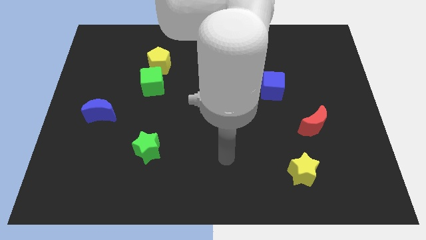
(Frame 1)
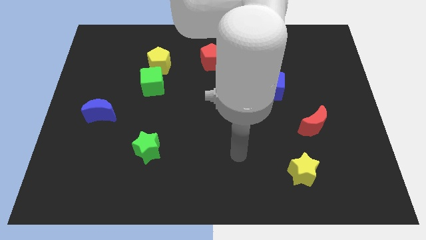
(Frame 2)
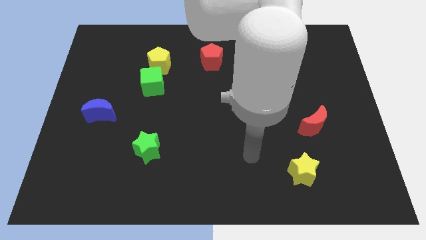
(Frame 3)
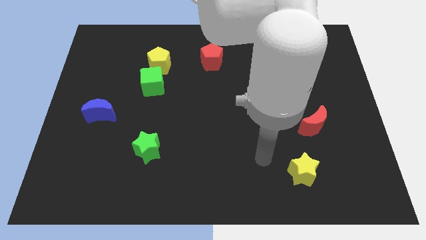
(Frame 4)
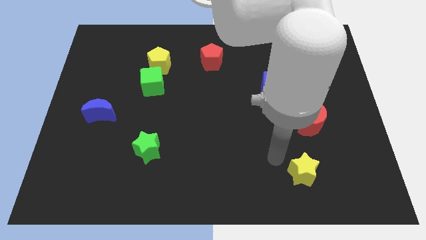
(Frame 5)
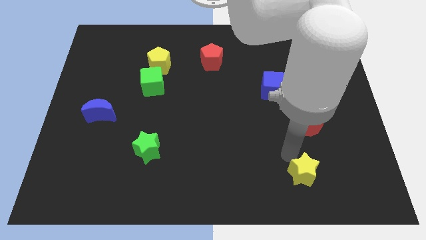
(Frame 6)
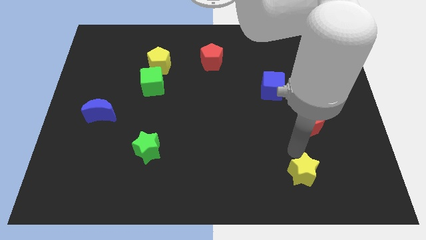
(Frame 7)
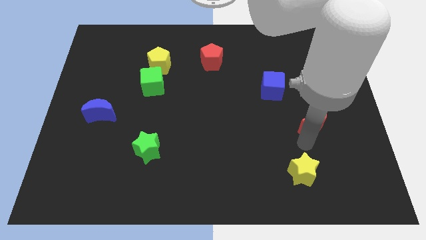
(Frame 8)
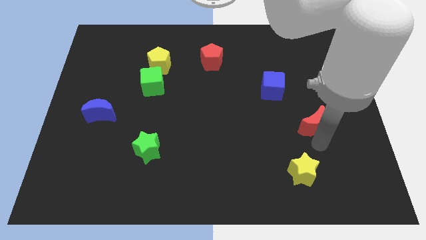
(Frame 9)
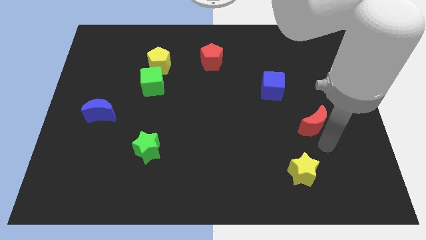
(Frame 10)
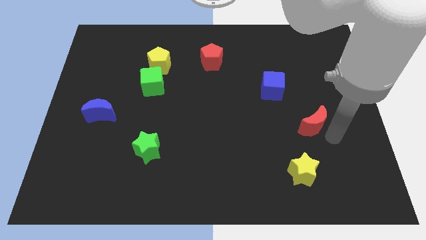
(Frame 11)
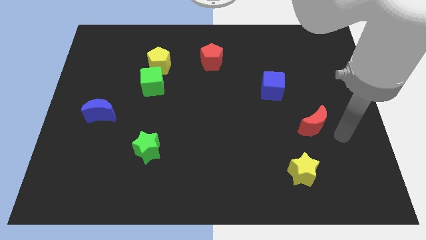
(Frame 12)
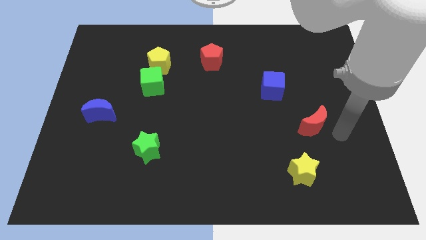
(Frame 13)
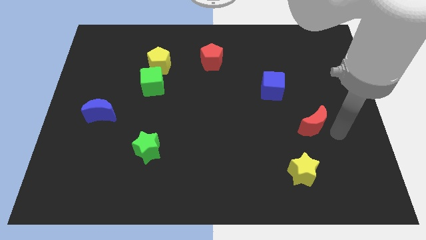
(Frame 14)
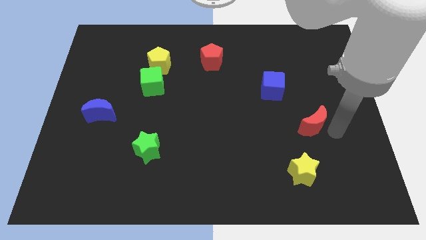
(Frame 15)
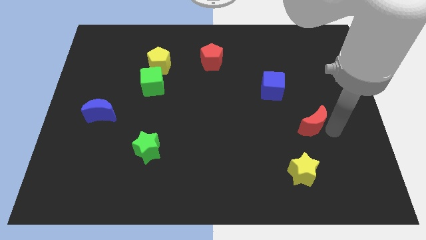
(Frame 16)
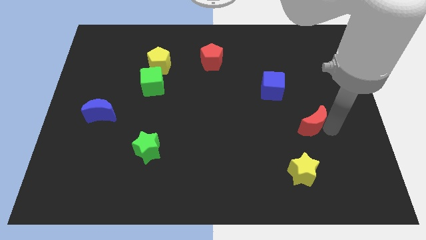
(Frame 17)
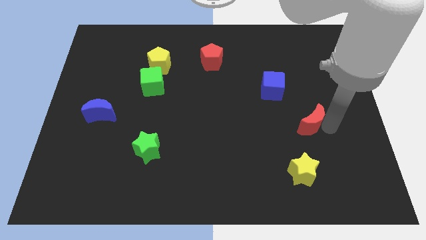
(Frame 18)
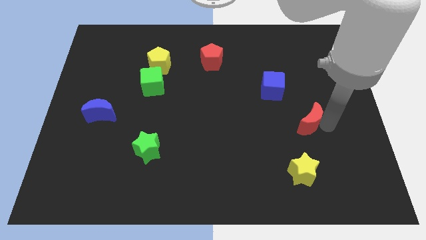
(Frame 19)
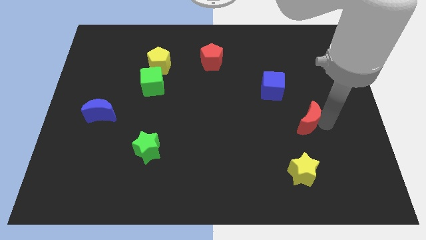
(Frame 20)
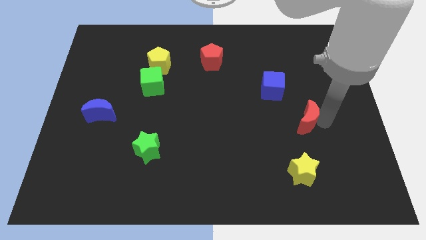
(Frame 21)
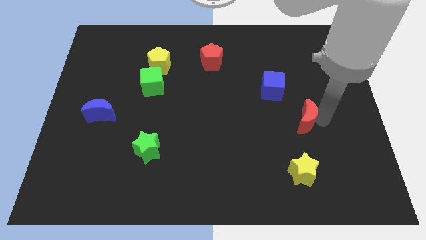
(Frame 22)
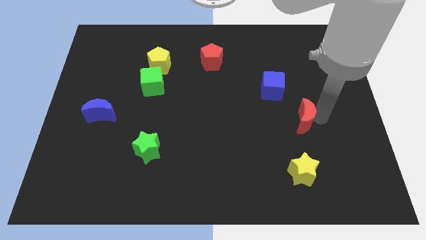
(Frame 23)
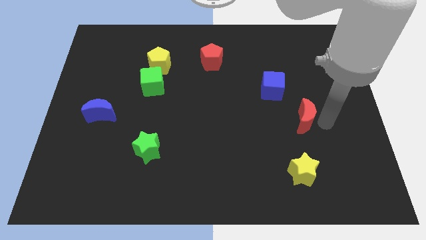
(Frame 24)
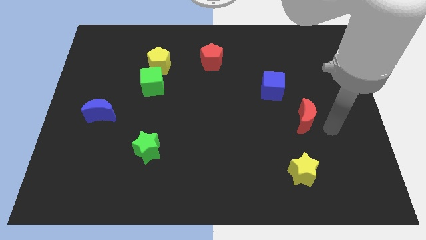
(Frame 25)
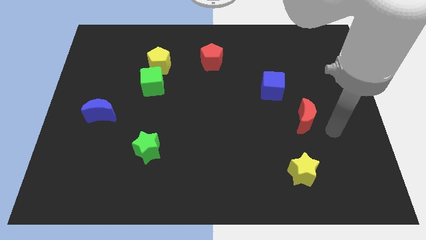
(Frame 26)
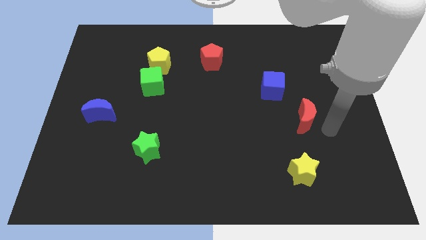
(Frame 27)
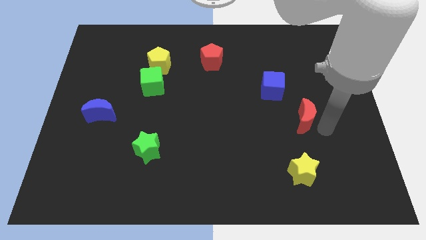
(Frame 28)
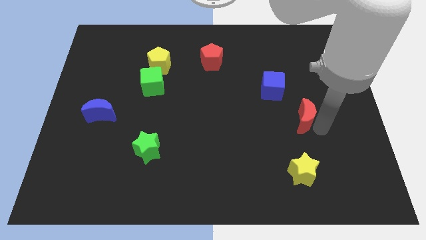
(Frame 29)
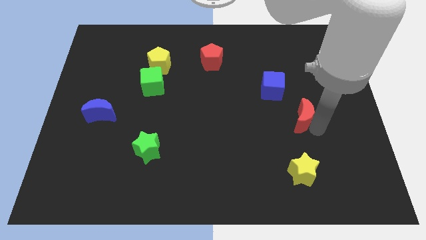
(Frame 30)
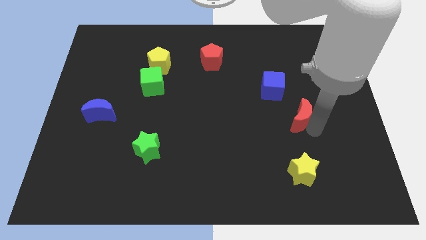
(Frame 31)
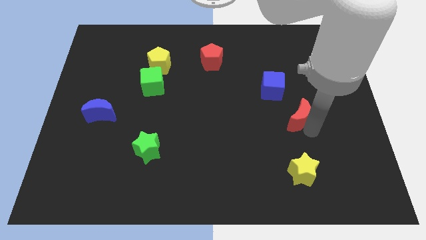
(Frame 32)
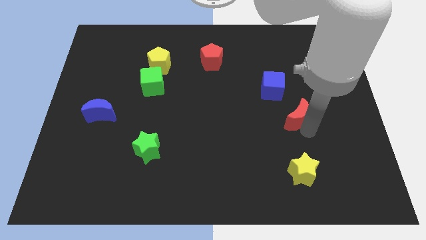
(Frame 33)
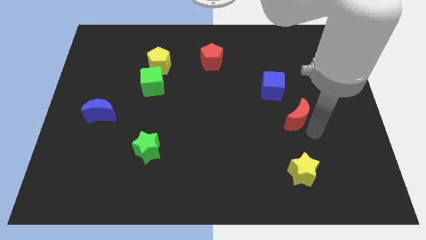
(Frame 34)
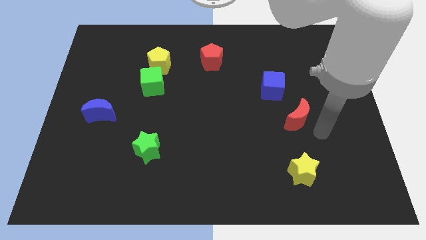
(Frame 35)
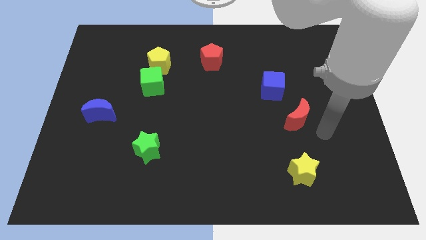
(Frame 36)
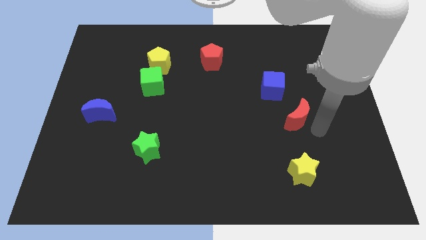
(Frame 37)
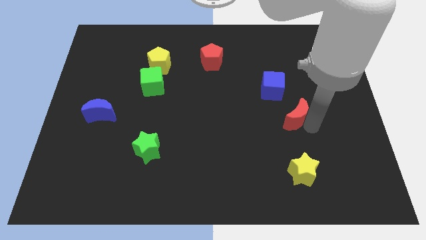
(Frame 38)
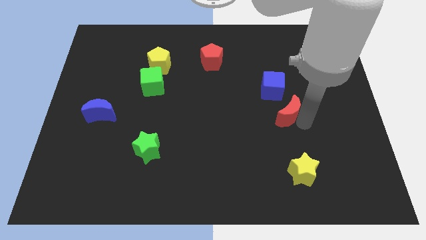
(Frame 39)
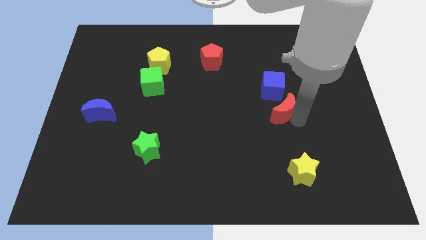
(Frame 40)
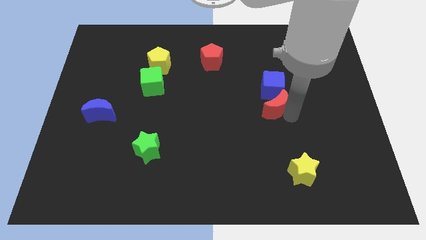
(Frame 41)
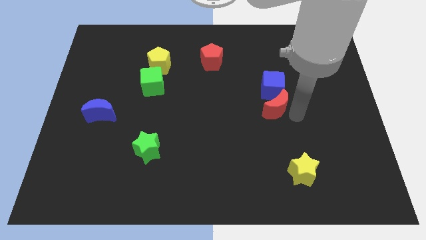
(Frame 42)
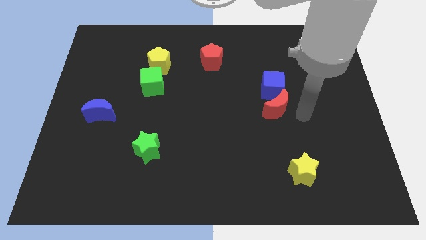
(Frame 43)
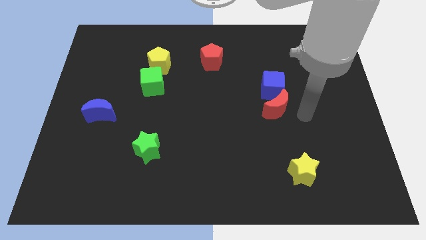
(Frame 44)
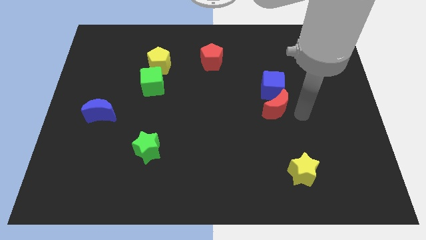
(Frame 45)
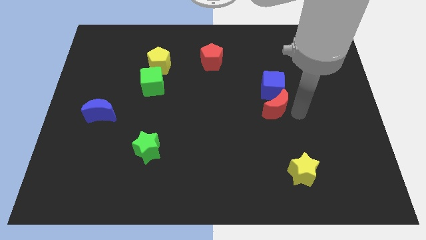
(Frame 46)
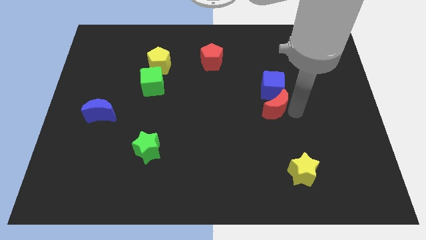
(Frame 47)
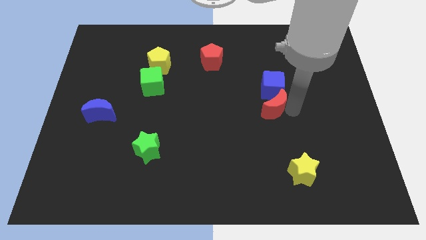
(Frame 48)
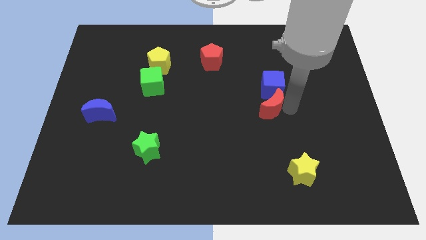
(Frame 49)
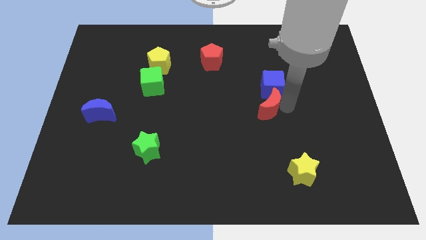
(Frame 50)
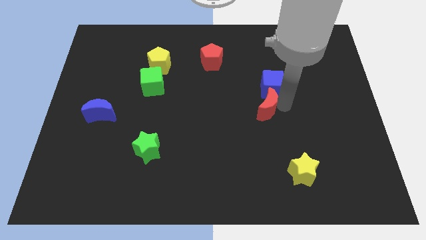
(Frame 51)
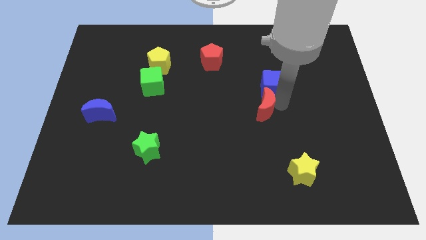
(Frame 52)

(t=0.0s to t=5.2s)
move the red moon to the center

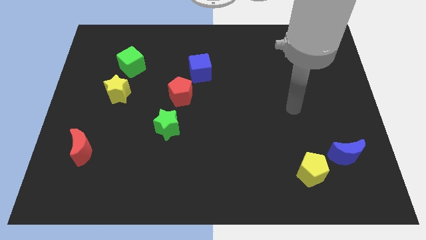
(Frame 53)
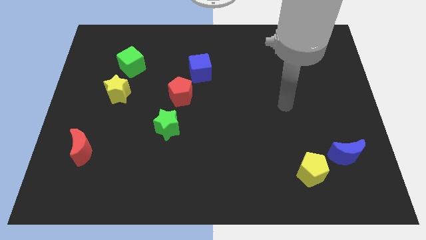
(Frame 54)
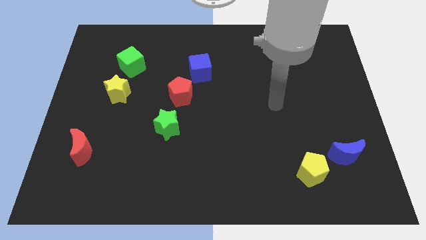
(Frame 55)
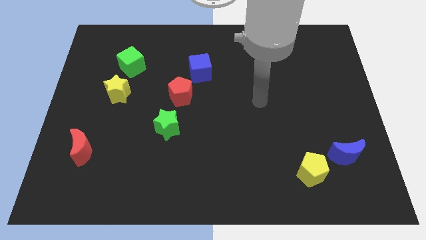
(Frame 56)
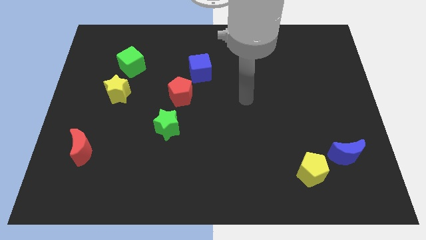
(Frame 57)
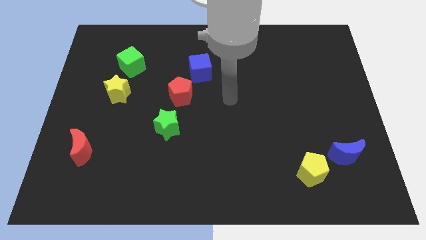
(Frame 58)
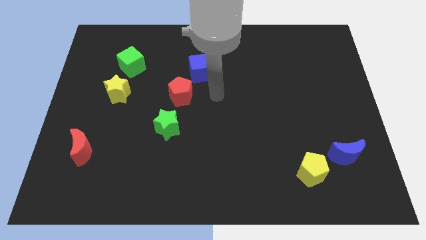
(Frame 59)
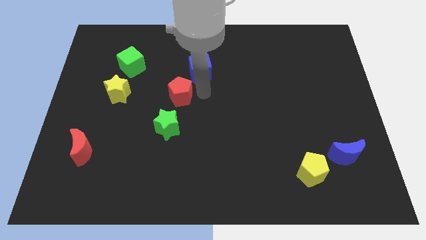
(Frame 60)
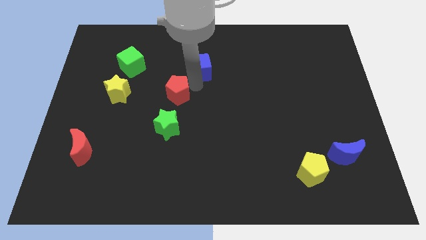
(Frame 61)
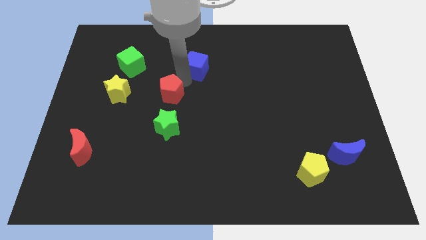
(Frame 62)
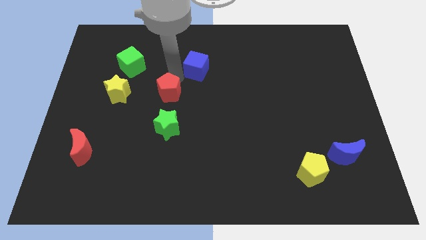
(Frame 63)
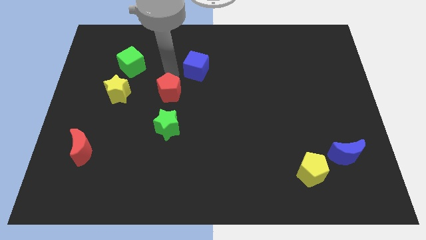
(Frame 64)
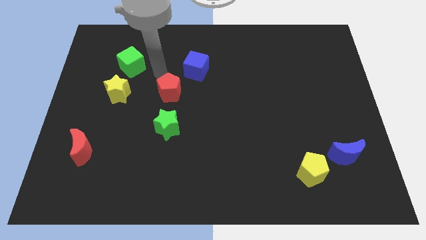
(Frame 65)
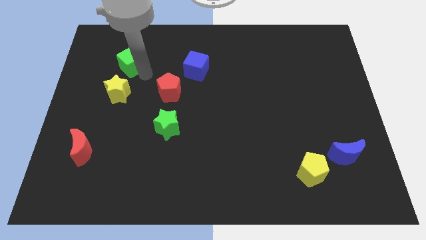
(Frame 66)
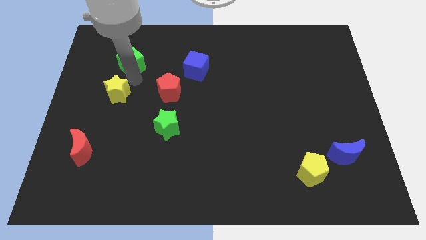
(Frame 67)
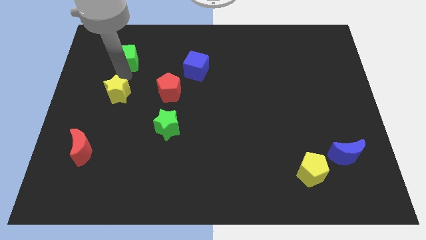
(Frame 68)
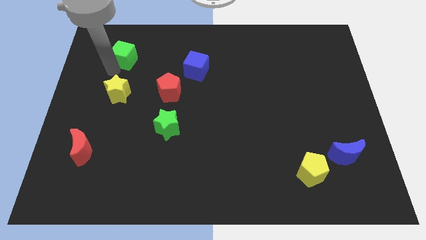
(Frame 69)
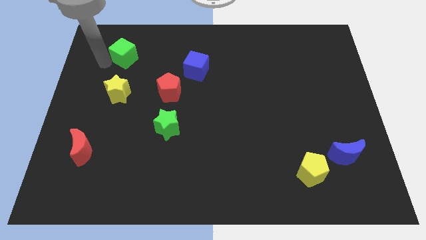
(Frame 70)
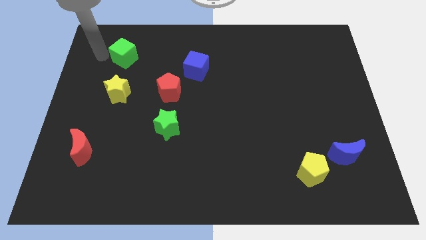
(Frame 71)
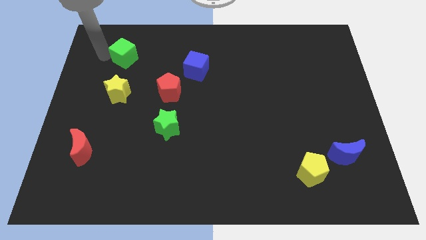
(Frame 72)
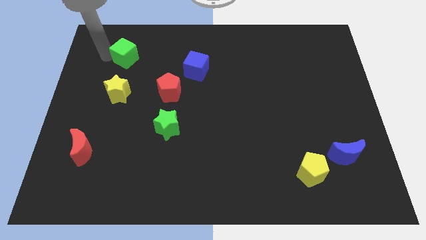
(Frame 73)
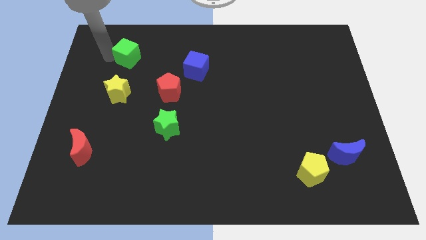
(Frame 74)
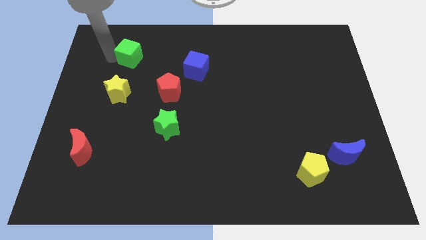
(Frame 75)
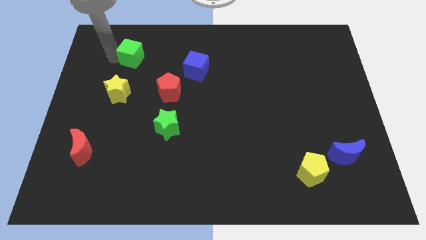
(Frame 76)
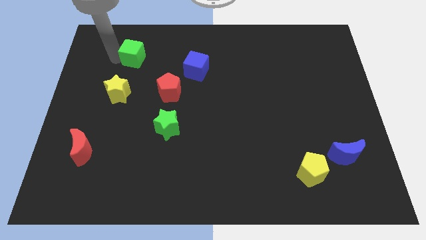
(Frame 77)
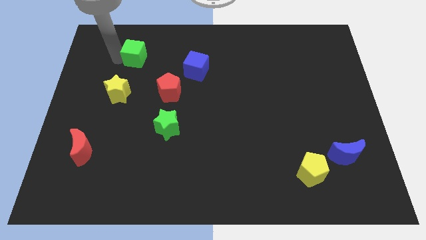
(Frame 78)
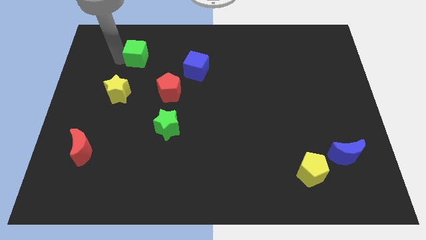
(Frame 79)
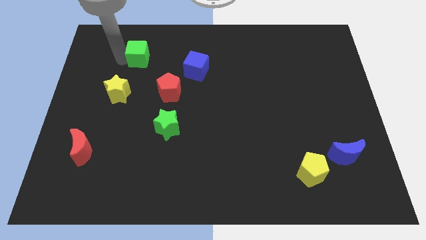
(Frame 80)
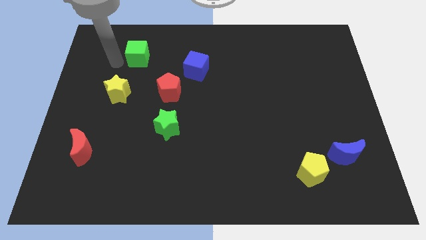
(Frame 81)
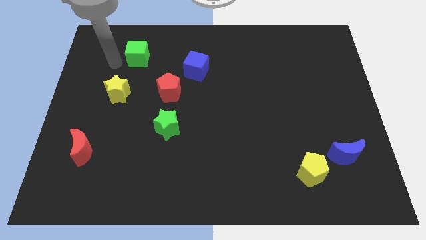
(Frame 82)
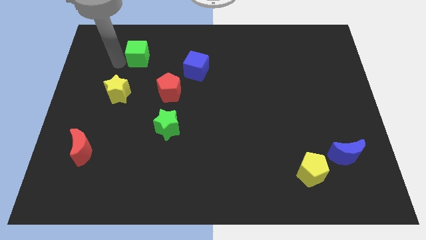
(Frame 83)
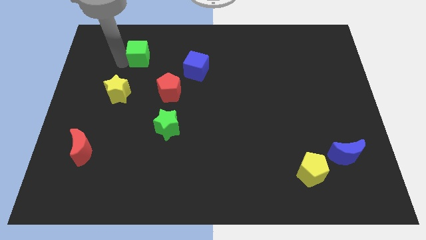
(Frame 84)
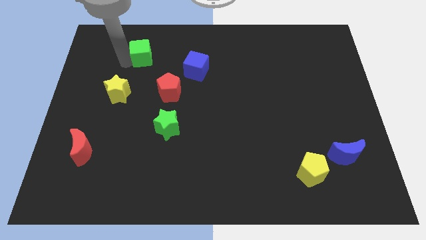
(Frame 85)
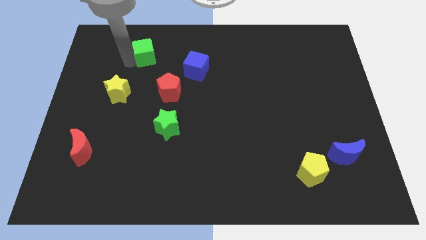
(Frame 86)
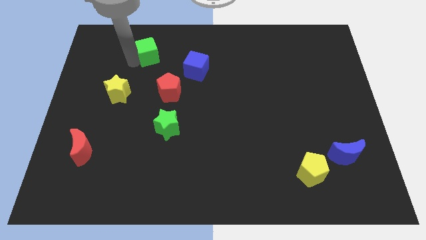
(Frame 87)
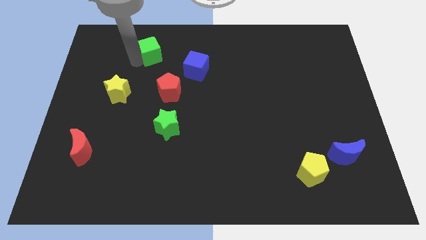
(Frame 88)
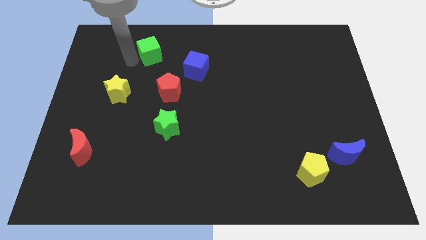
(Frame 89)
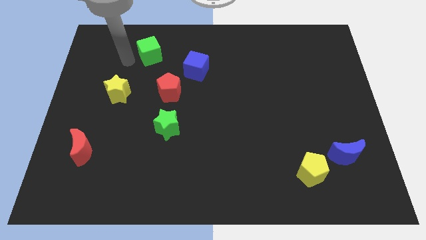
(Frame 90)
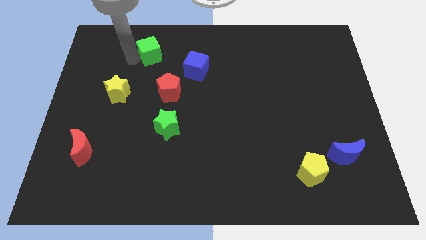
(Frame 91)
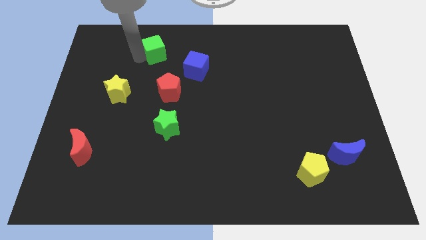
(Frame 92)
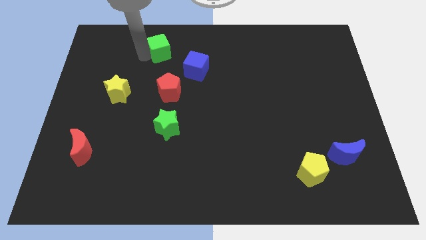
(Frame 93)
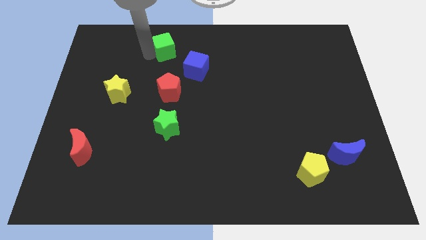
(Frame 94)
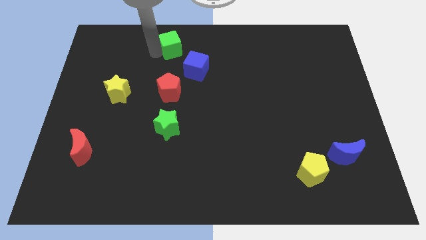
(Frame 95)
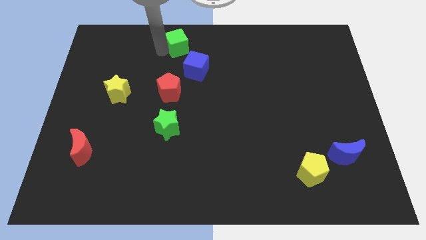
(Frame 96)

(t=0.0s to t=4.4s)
put the green cube to the top side
